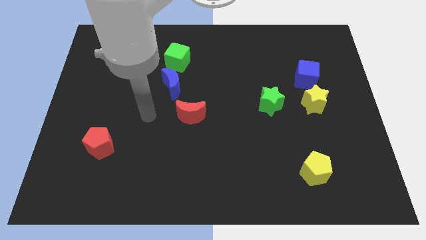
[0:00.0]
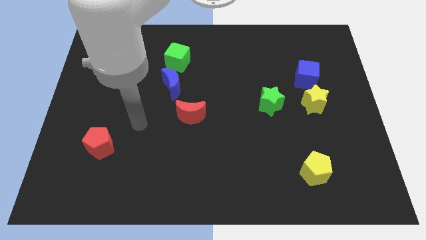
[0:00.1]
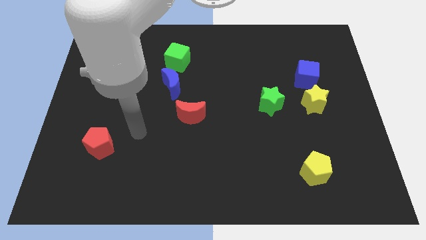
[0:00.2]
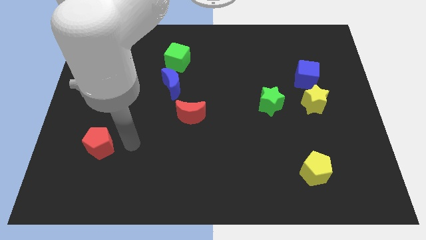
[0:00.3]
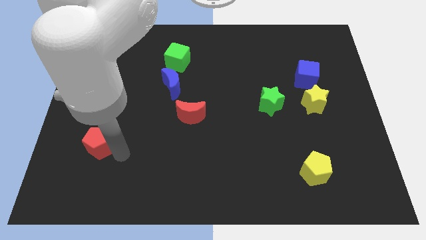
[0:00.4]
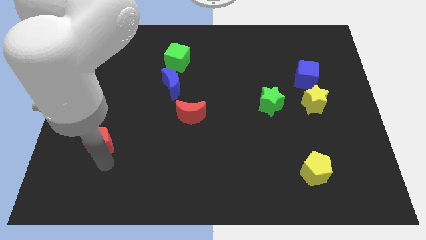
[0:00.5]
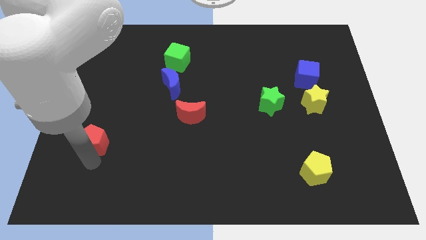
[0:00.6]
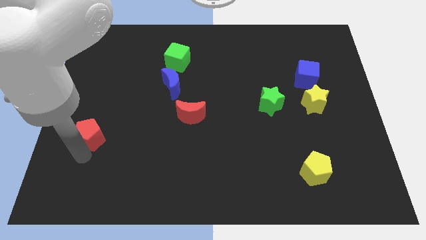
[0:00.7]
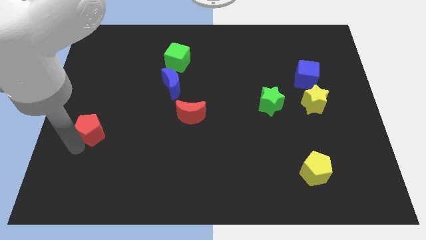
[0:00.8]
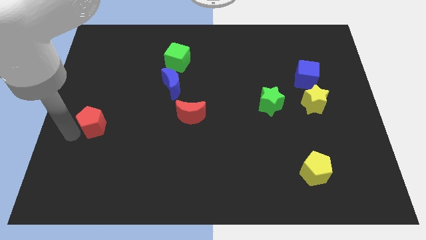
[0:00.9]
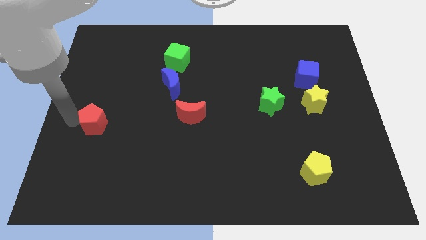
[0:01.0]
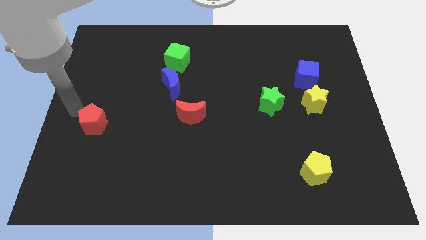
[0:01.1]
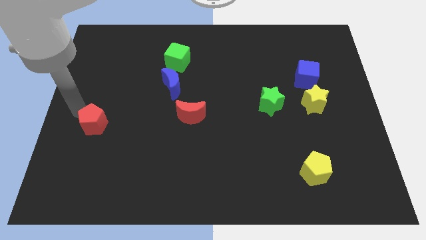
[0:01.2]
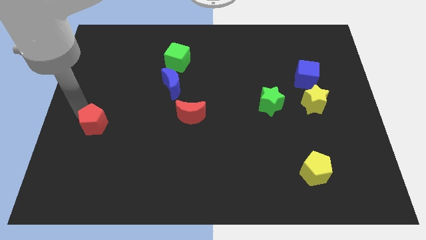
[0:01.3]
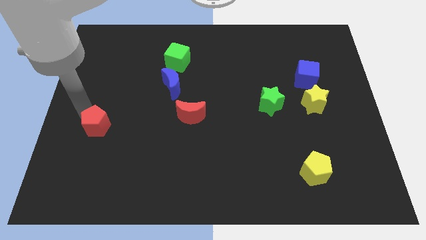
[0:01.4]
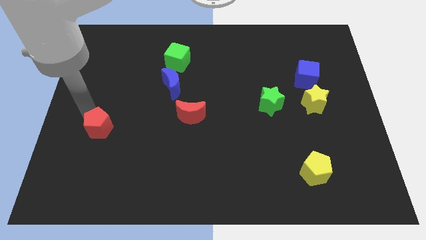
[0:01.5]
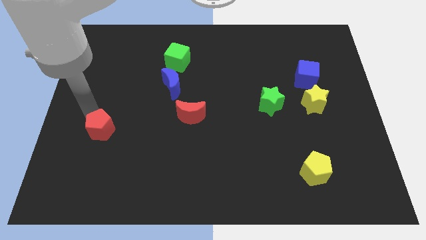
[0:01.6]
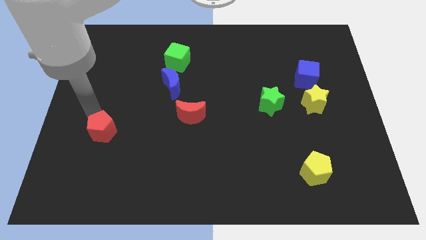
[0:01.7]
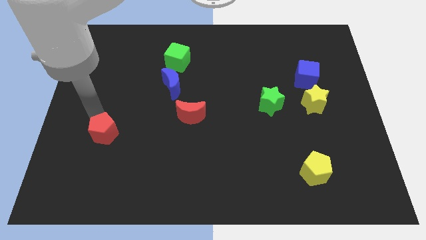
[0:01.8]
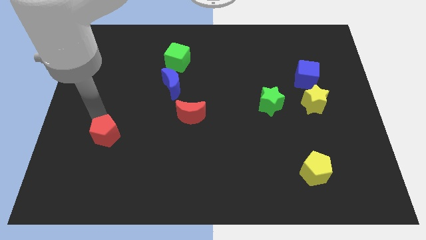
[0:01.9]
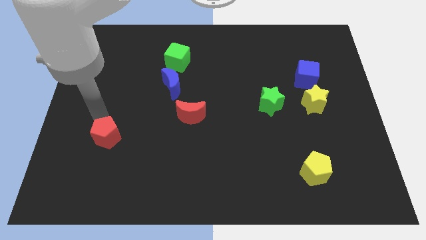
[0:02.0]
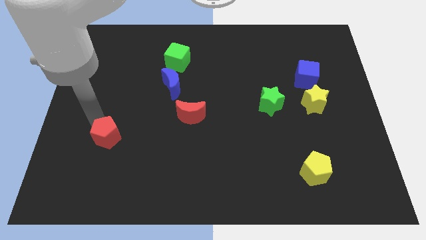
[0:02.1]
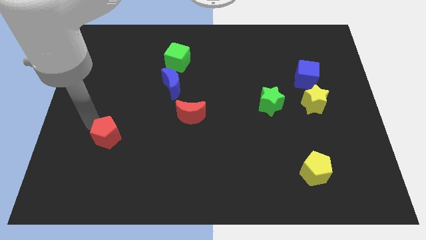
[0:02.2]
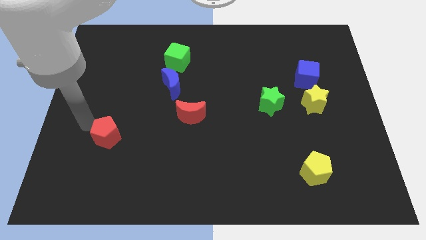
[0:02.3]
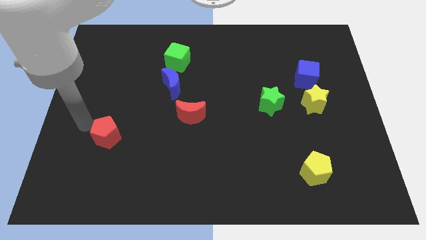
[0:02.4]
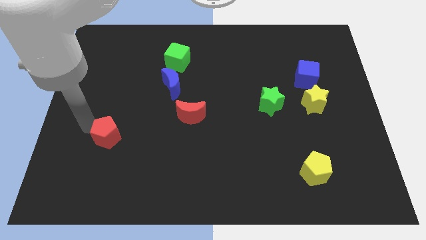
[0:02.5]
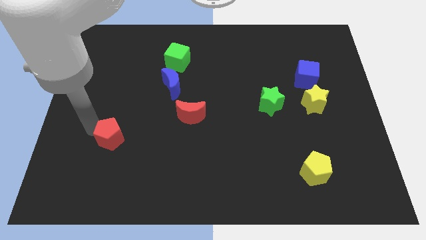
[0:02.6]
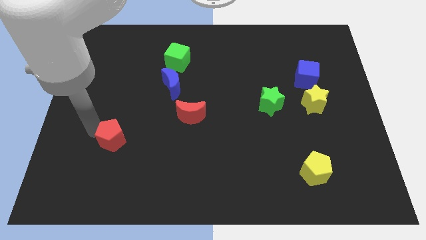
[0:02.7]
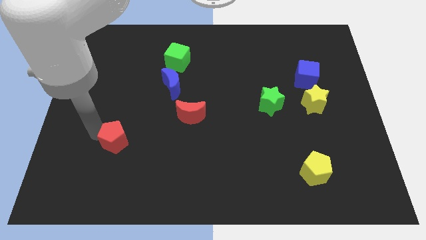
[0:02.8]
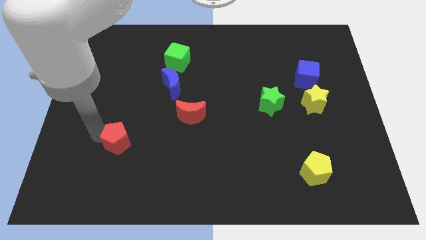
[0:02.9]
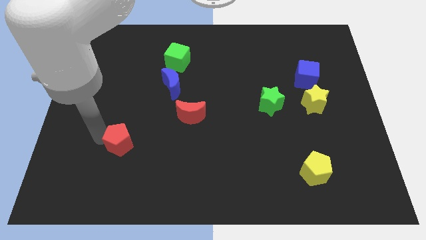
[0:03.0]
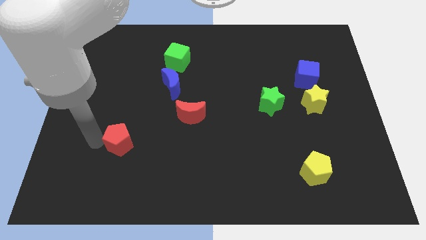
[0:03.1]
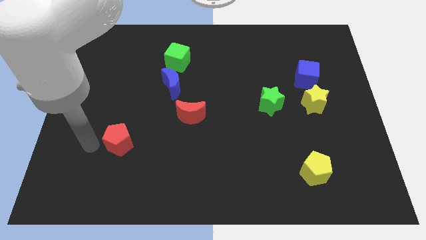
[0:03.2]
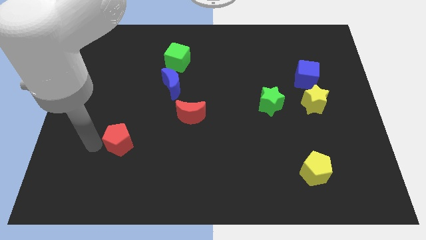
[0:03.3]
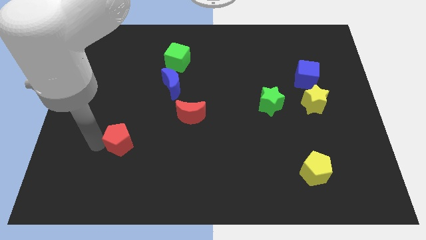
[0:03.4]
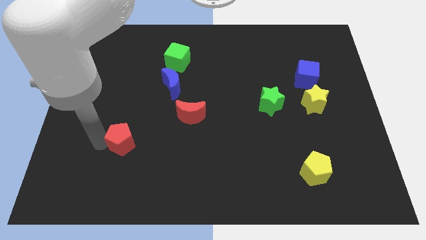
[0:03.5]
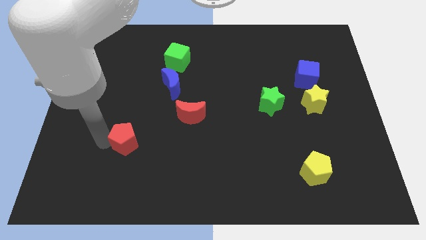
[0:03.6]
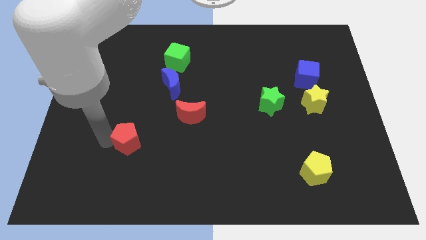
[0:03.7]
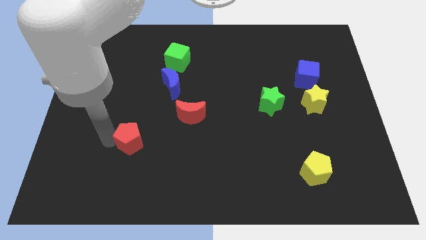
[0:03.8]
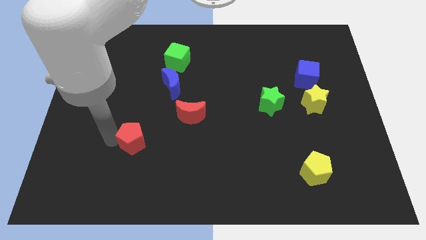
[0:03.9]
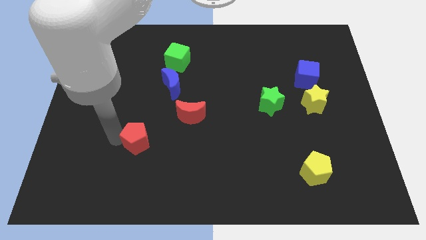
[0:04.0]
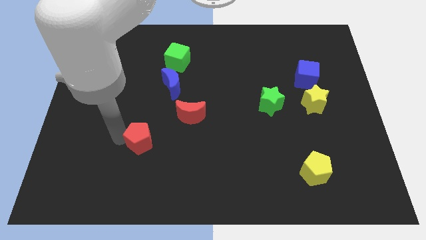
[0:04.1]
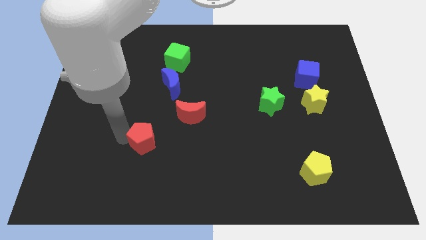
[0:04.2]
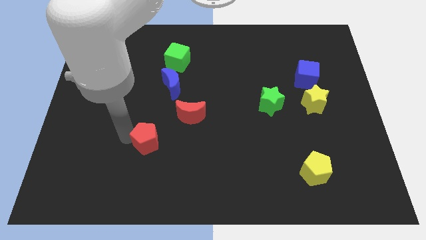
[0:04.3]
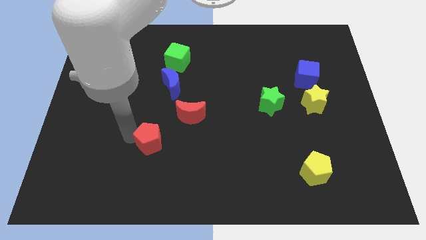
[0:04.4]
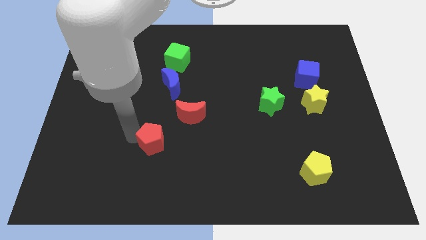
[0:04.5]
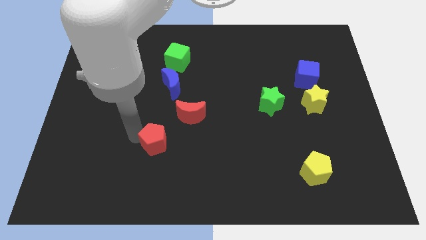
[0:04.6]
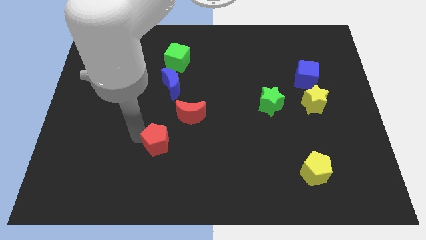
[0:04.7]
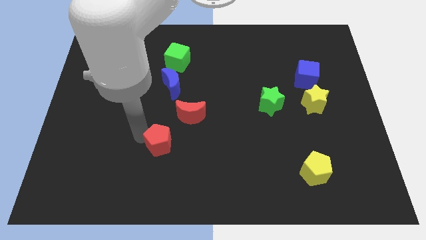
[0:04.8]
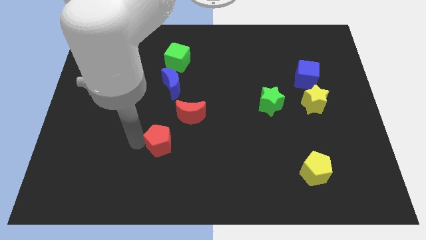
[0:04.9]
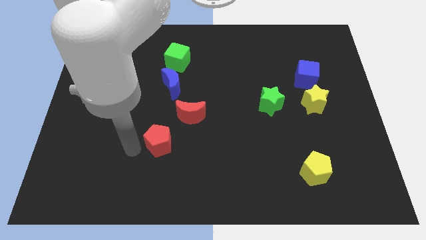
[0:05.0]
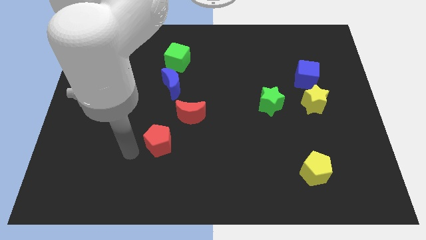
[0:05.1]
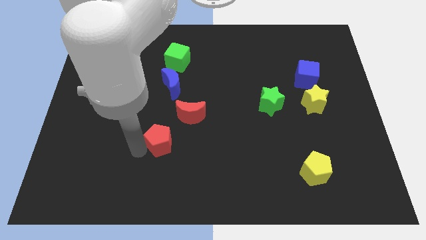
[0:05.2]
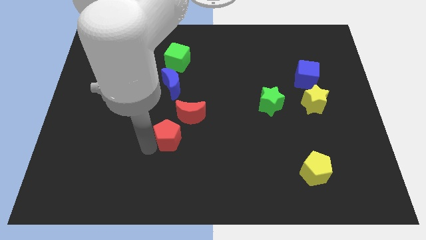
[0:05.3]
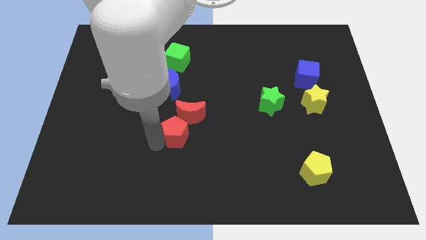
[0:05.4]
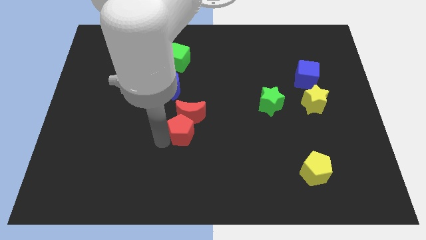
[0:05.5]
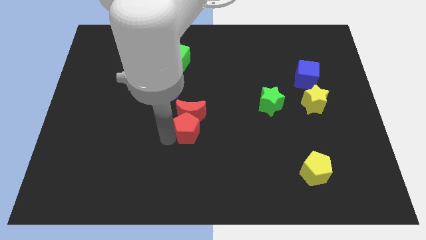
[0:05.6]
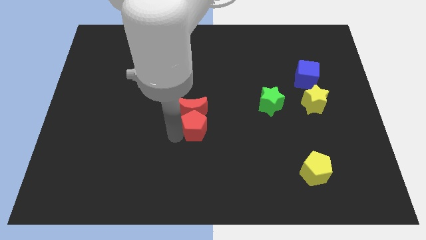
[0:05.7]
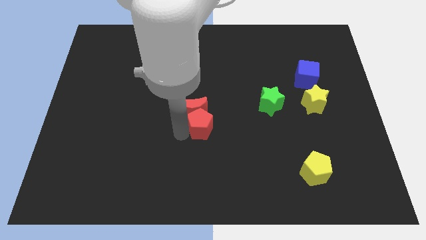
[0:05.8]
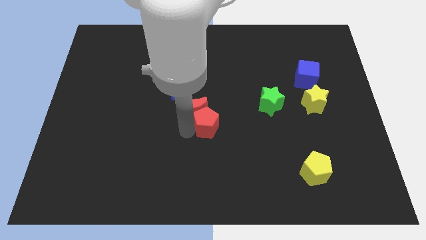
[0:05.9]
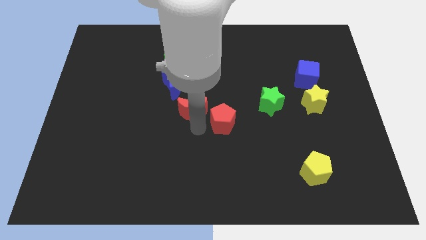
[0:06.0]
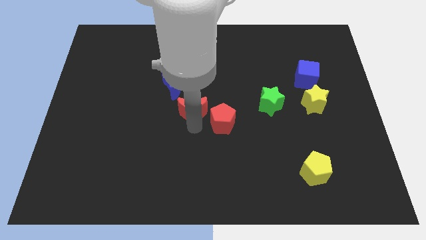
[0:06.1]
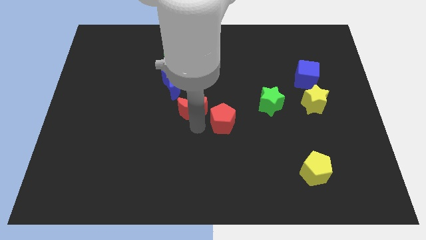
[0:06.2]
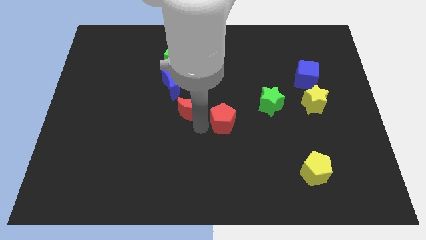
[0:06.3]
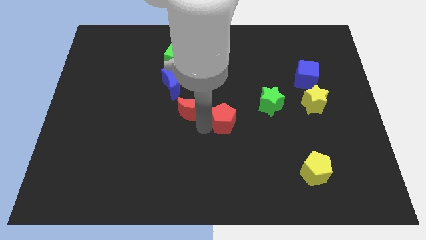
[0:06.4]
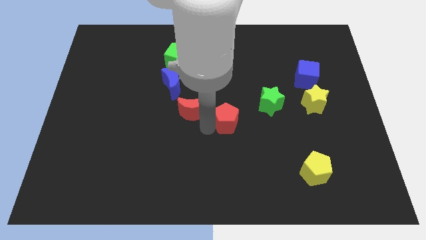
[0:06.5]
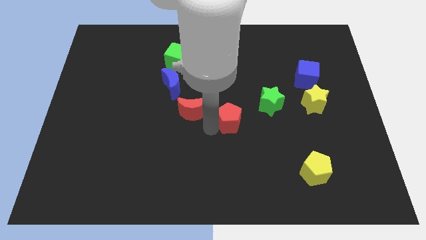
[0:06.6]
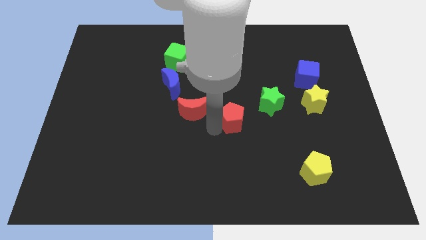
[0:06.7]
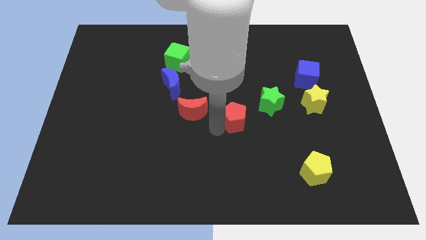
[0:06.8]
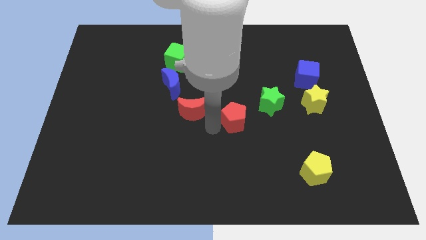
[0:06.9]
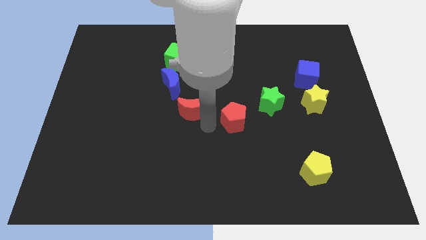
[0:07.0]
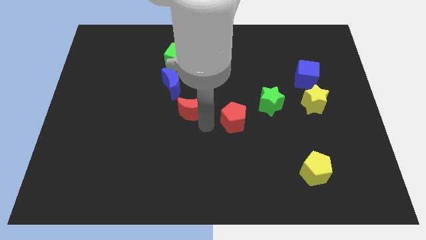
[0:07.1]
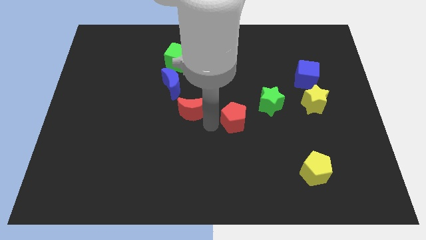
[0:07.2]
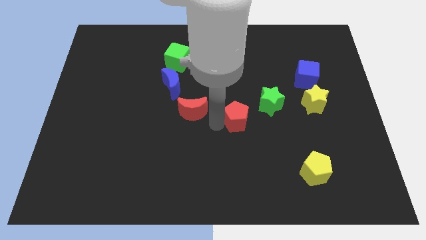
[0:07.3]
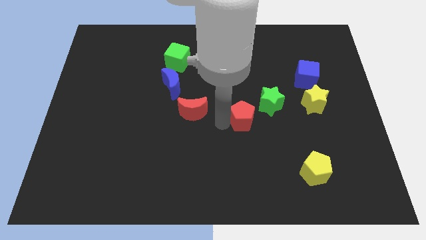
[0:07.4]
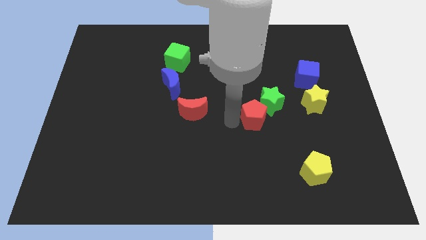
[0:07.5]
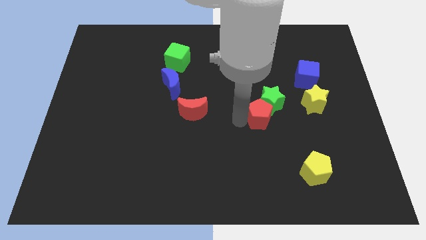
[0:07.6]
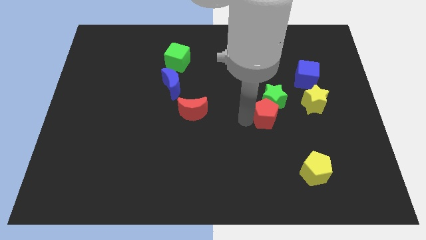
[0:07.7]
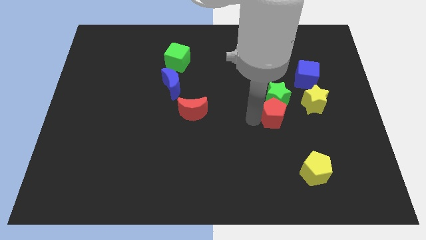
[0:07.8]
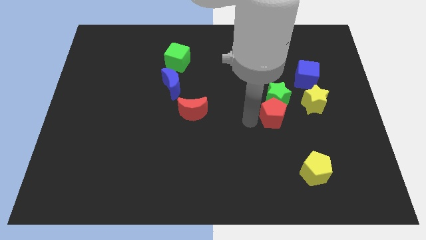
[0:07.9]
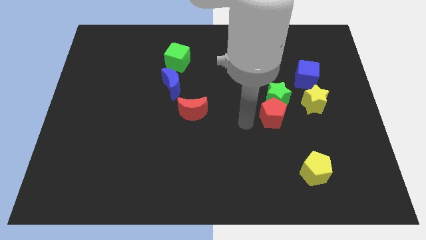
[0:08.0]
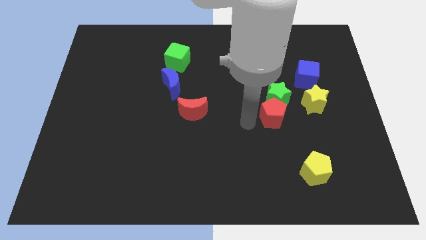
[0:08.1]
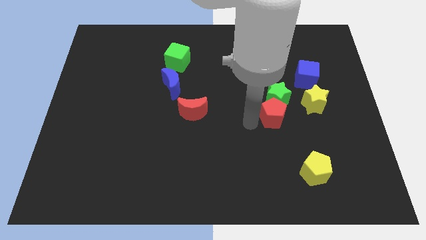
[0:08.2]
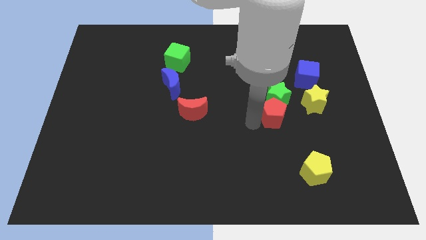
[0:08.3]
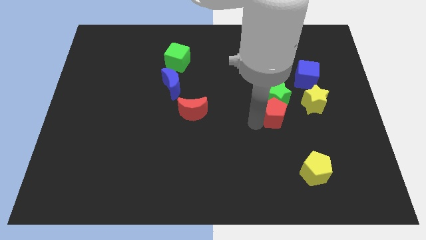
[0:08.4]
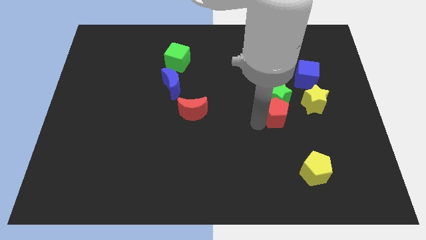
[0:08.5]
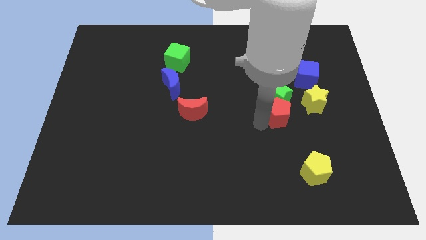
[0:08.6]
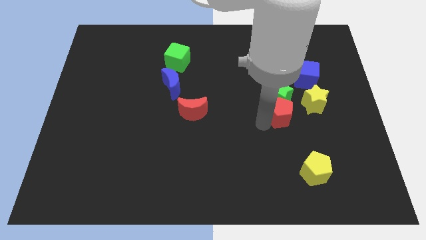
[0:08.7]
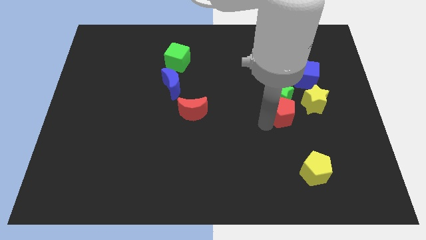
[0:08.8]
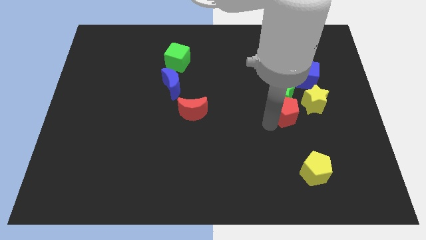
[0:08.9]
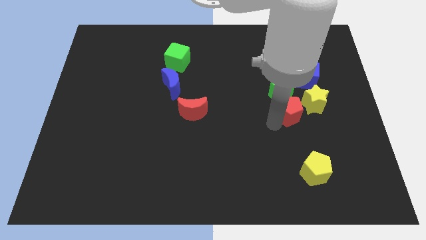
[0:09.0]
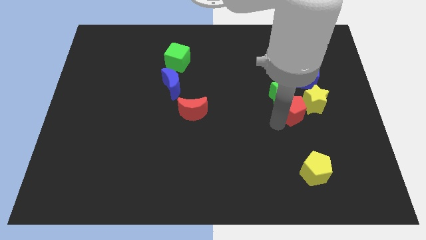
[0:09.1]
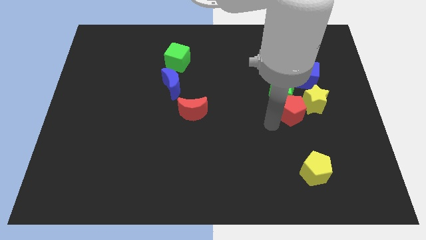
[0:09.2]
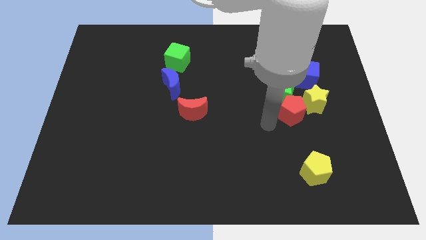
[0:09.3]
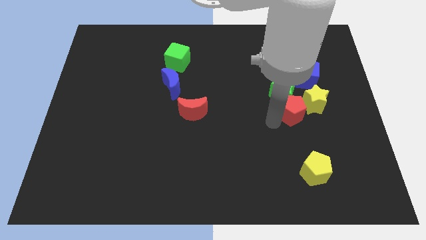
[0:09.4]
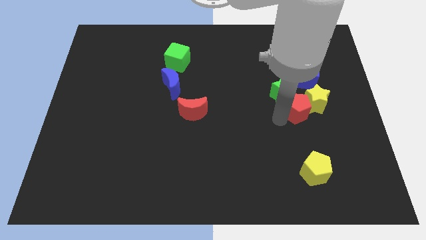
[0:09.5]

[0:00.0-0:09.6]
push the red pentagon to the yellow star
